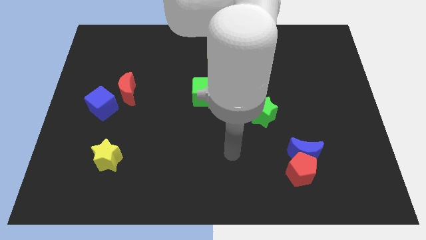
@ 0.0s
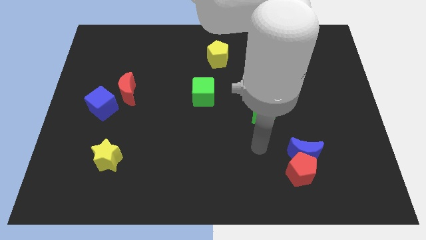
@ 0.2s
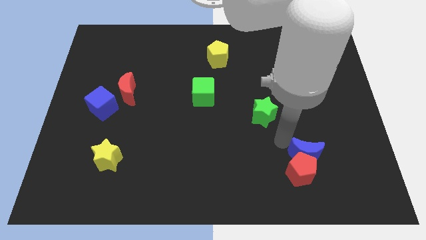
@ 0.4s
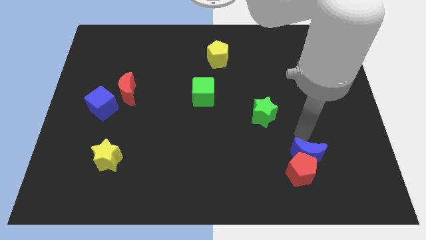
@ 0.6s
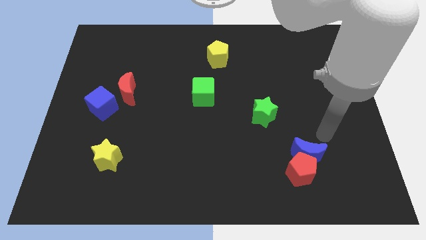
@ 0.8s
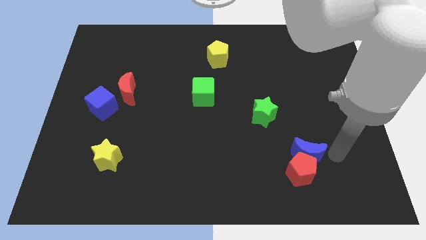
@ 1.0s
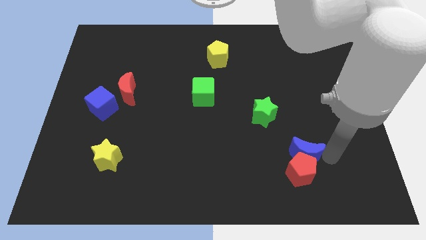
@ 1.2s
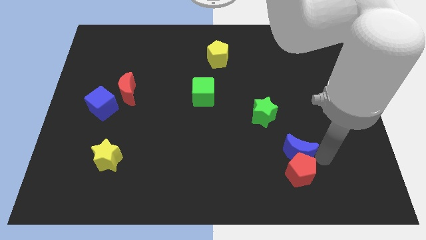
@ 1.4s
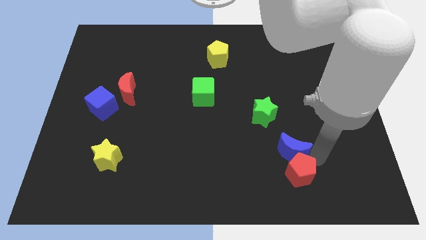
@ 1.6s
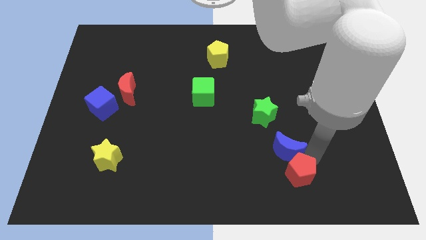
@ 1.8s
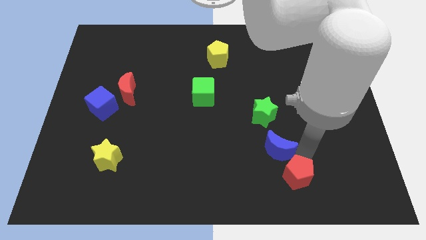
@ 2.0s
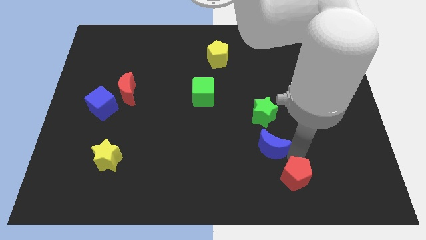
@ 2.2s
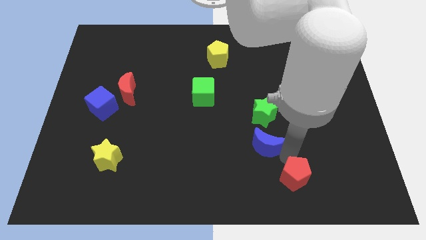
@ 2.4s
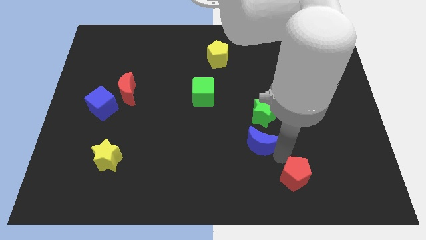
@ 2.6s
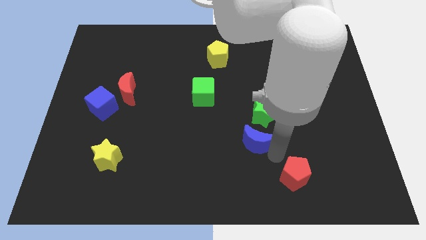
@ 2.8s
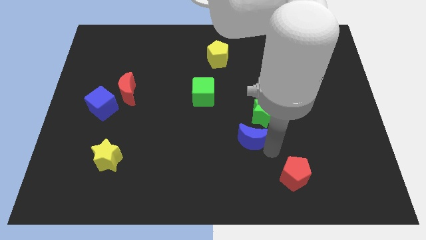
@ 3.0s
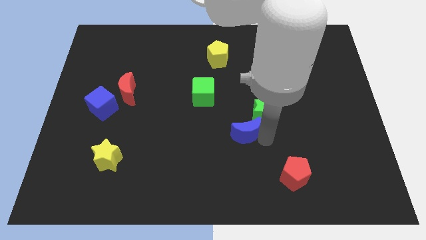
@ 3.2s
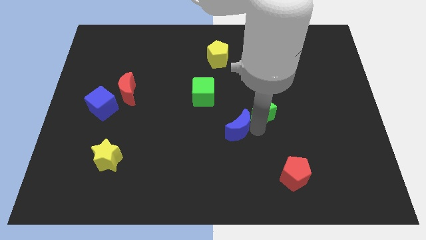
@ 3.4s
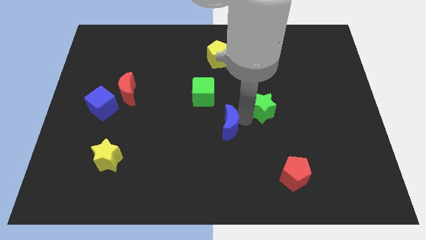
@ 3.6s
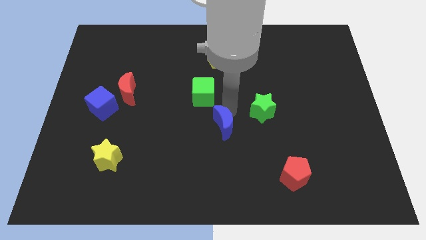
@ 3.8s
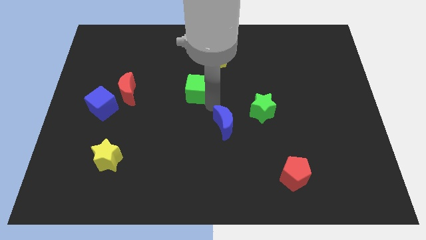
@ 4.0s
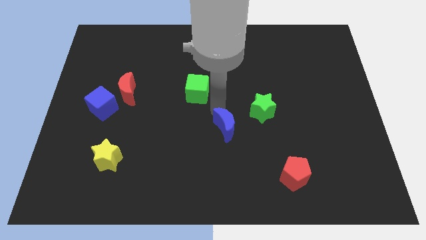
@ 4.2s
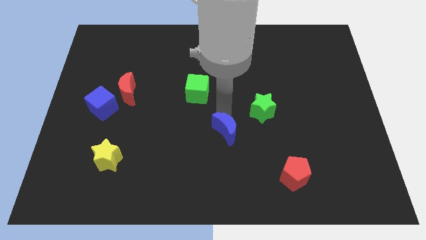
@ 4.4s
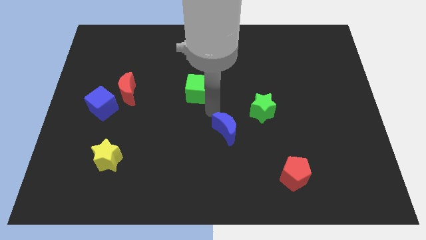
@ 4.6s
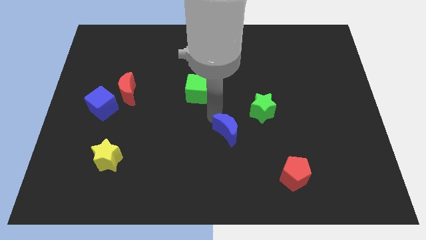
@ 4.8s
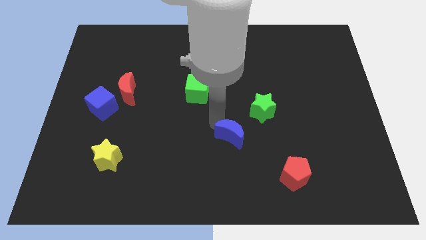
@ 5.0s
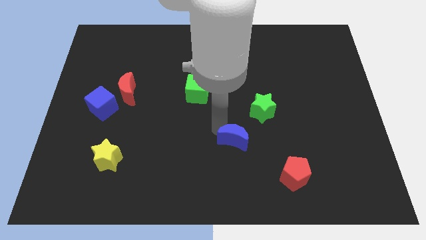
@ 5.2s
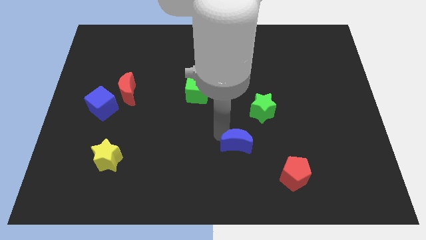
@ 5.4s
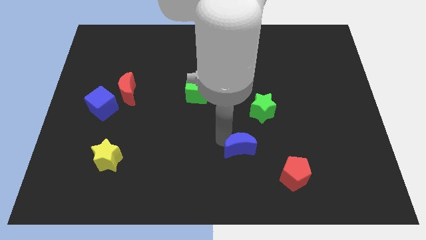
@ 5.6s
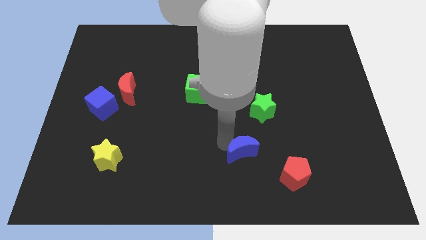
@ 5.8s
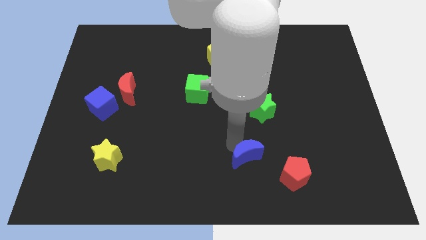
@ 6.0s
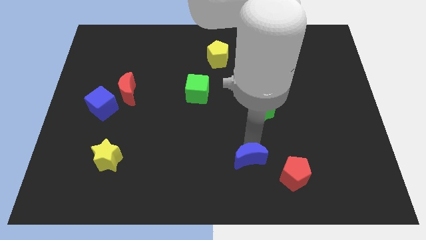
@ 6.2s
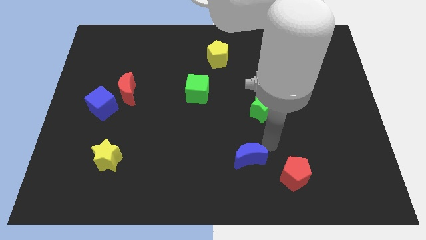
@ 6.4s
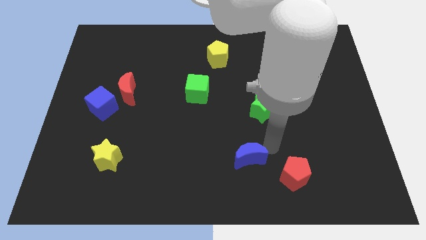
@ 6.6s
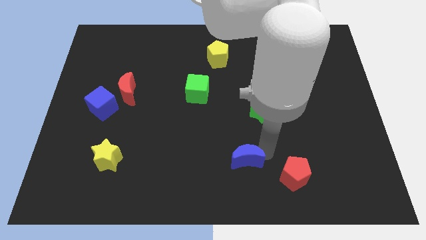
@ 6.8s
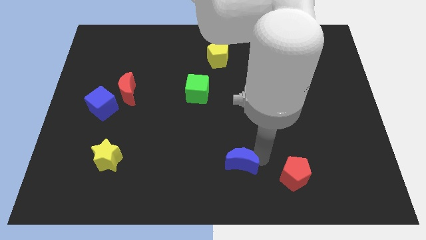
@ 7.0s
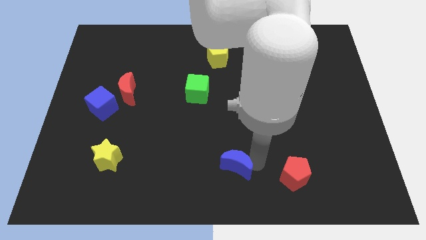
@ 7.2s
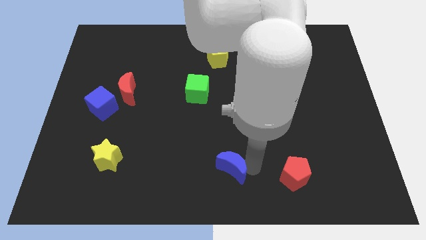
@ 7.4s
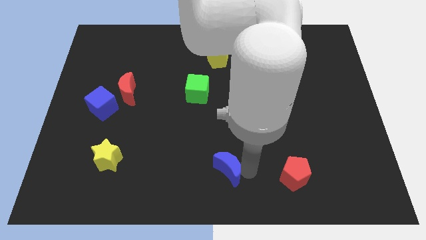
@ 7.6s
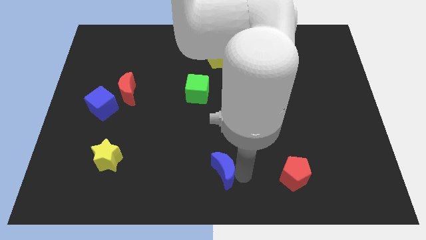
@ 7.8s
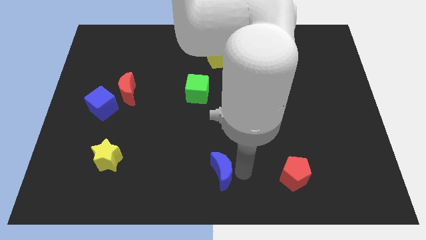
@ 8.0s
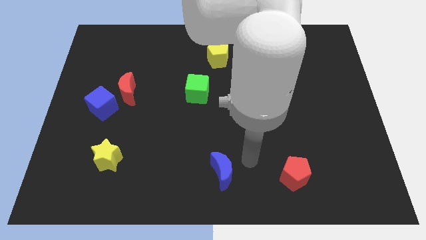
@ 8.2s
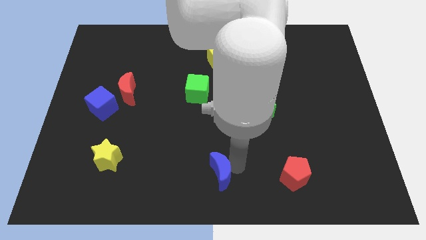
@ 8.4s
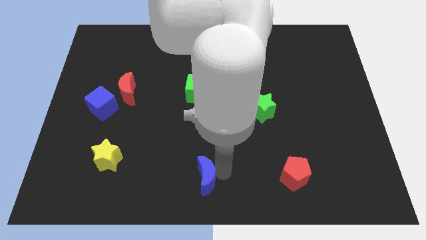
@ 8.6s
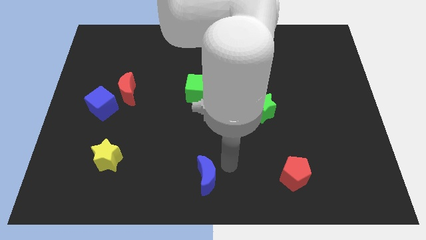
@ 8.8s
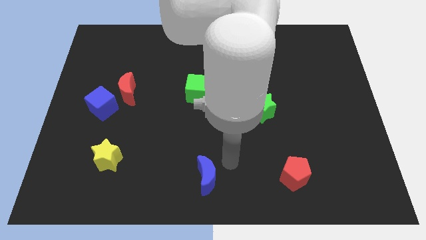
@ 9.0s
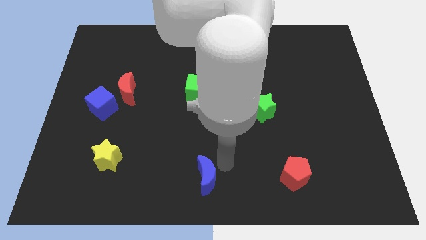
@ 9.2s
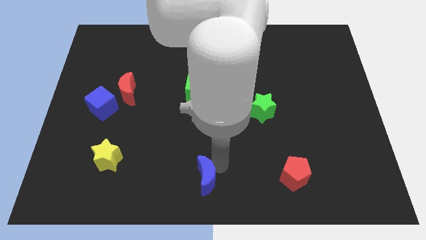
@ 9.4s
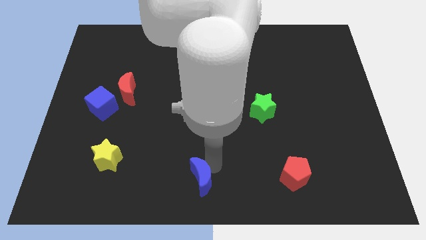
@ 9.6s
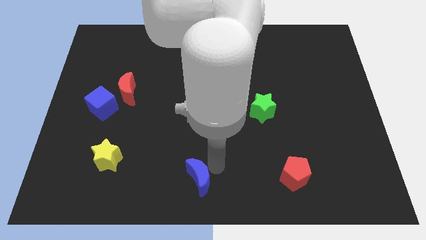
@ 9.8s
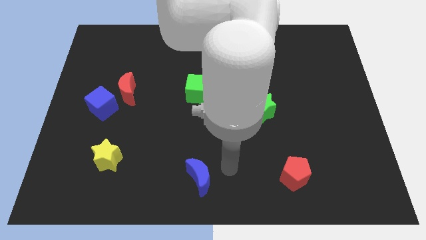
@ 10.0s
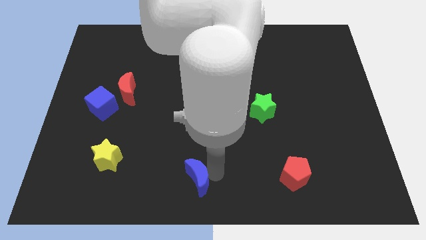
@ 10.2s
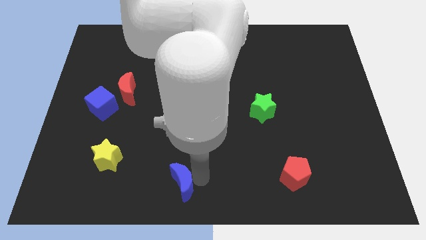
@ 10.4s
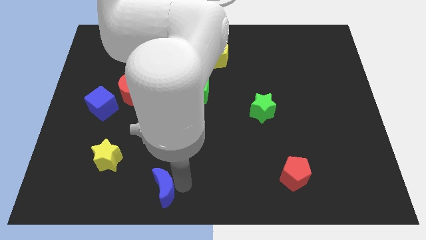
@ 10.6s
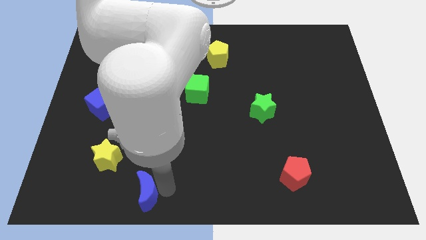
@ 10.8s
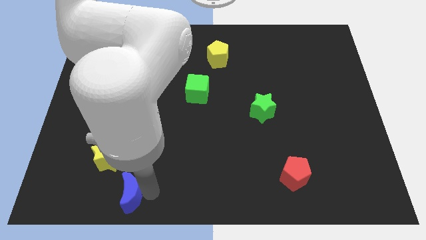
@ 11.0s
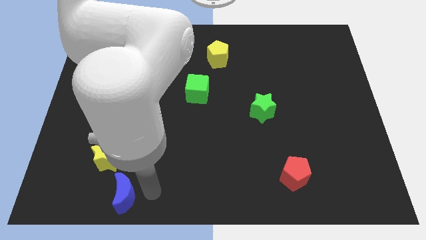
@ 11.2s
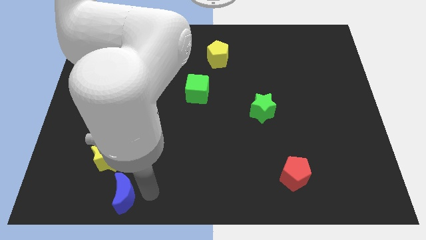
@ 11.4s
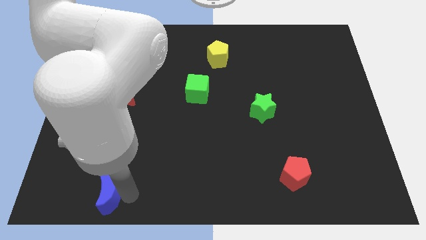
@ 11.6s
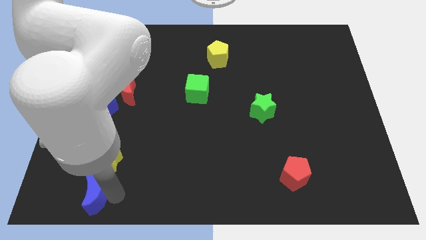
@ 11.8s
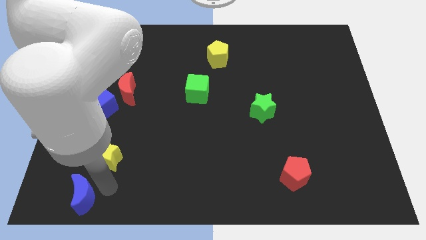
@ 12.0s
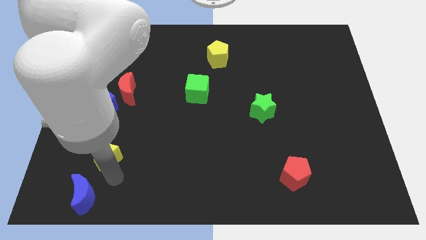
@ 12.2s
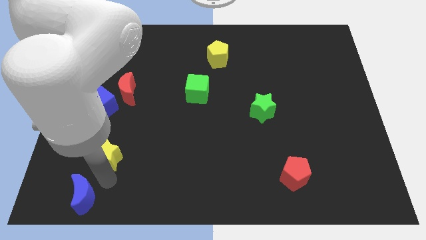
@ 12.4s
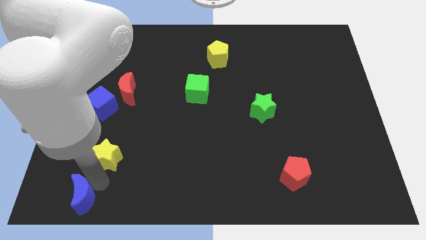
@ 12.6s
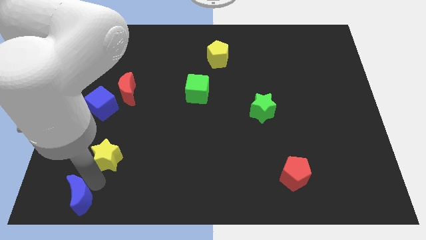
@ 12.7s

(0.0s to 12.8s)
slide the blue moon to the lower left corner
